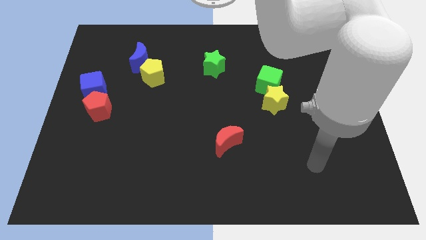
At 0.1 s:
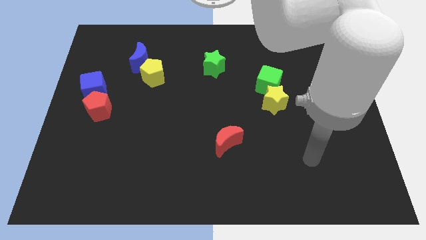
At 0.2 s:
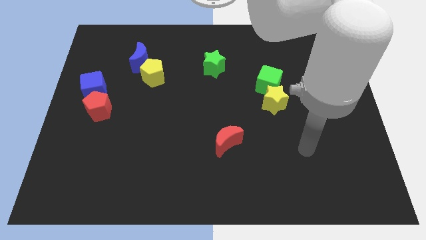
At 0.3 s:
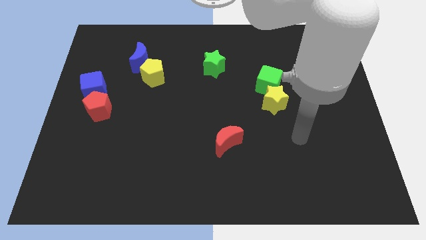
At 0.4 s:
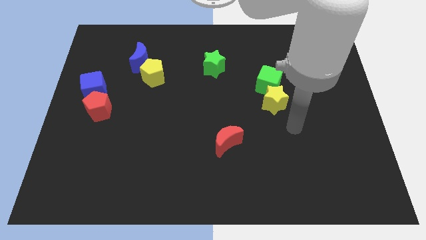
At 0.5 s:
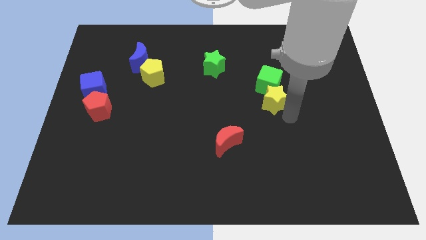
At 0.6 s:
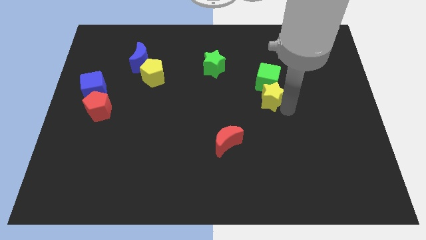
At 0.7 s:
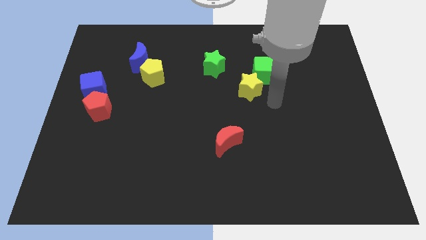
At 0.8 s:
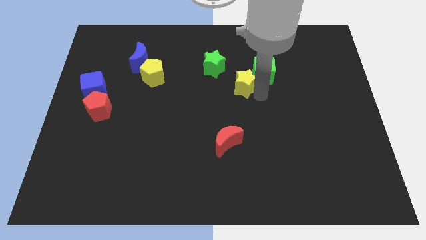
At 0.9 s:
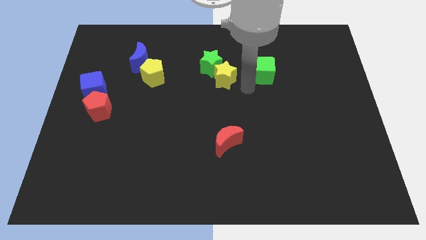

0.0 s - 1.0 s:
pull the green cube apart from the yellow star

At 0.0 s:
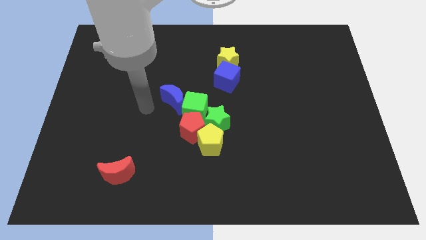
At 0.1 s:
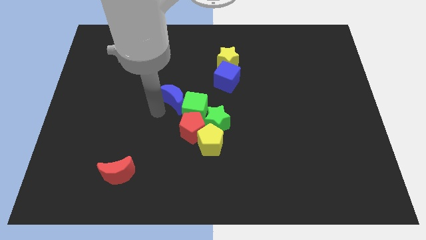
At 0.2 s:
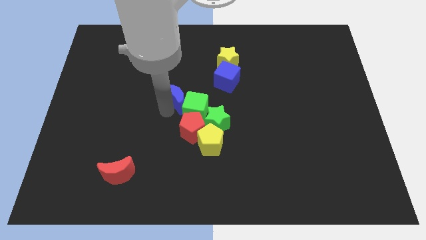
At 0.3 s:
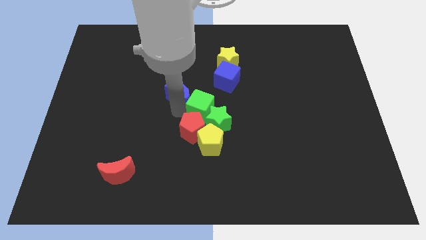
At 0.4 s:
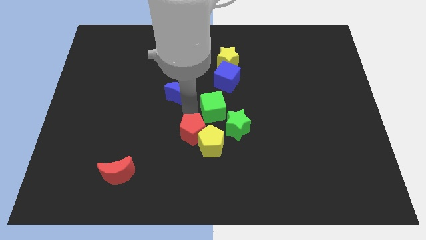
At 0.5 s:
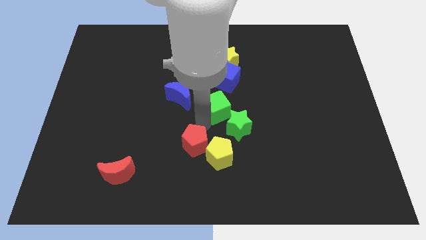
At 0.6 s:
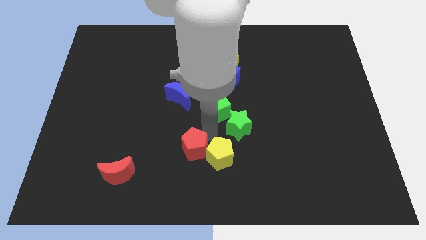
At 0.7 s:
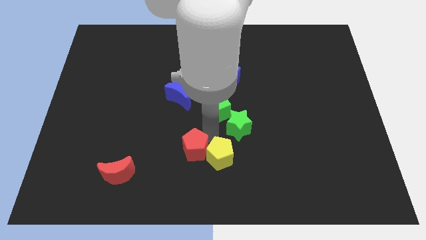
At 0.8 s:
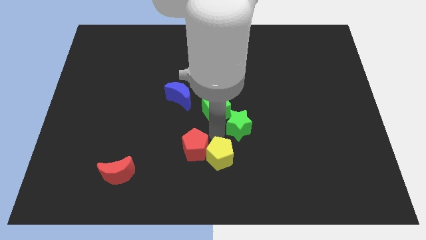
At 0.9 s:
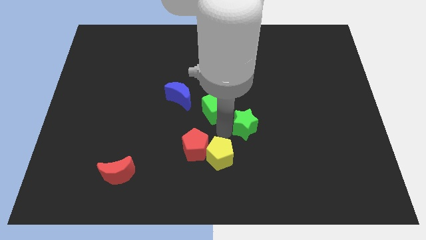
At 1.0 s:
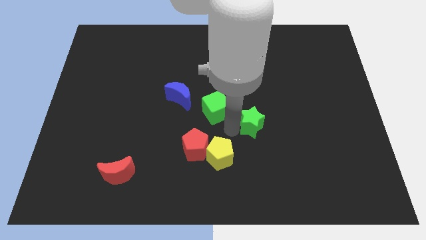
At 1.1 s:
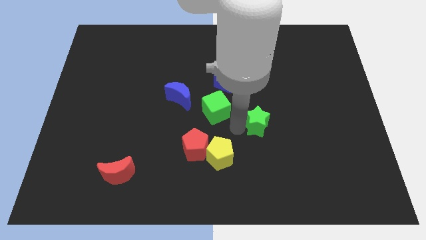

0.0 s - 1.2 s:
separate the green star from the group

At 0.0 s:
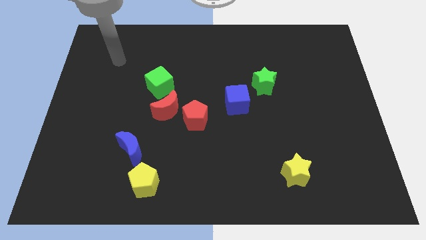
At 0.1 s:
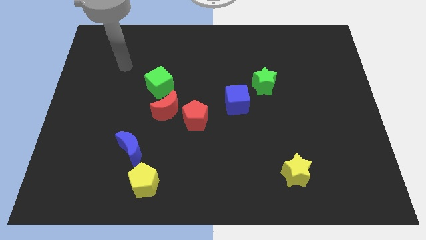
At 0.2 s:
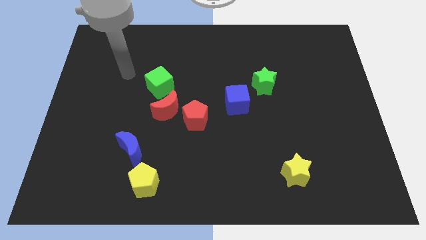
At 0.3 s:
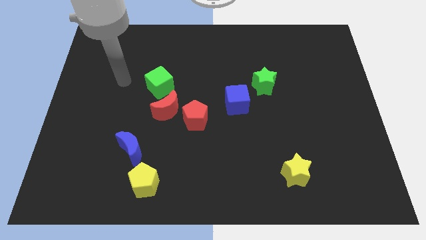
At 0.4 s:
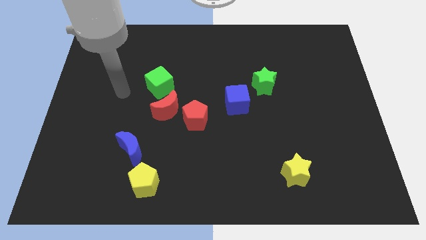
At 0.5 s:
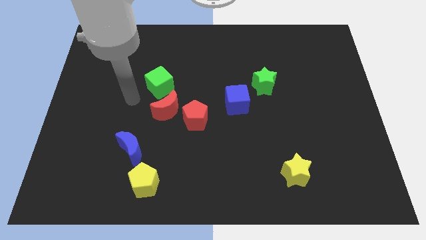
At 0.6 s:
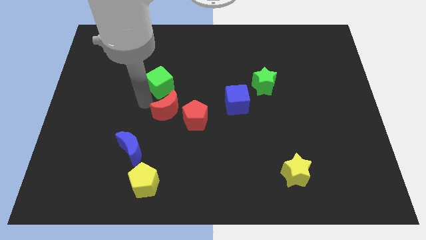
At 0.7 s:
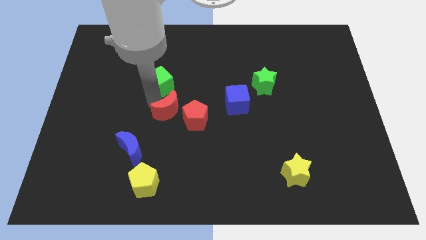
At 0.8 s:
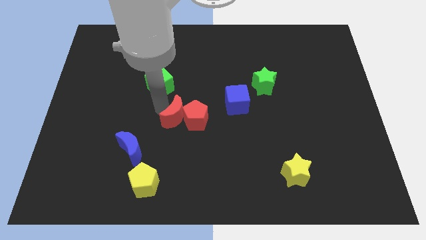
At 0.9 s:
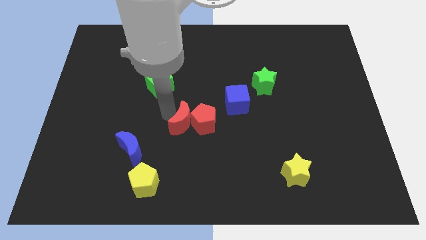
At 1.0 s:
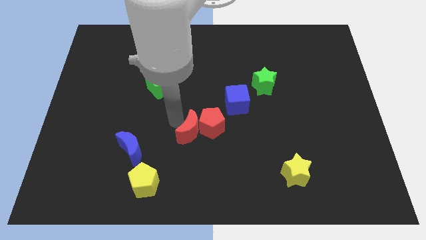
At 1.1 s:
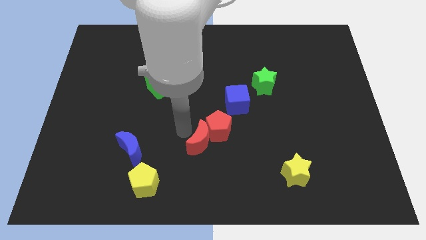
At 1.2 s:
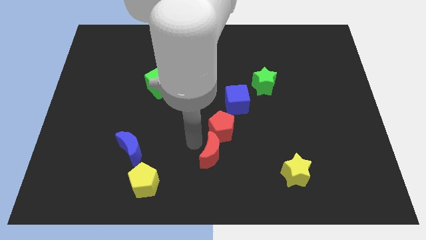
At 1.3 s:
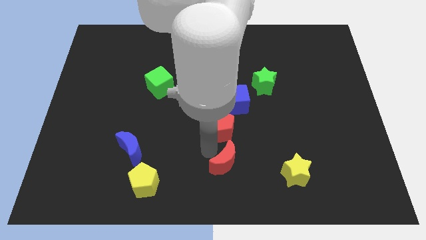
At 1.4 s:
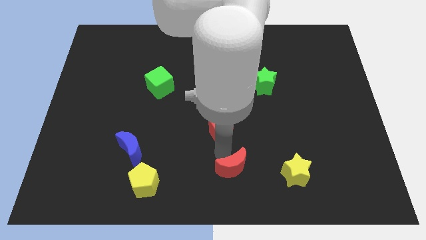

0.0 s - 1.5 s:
separate the red pentagon from the red moon

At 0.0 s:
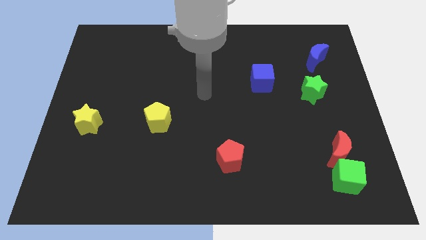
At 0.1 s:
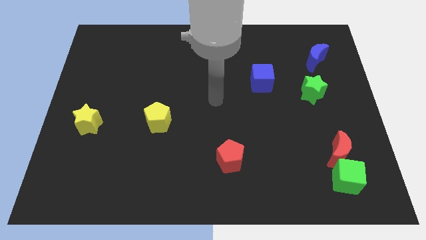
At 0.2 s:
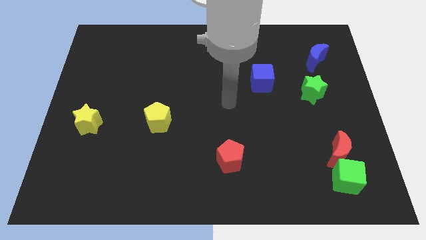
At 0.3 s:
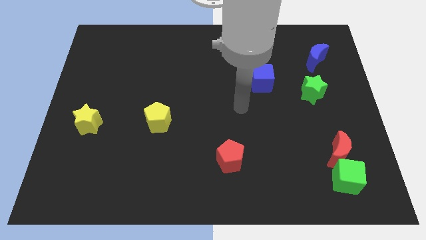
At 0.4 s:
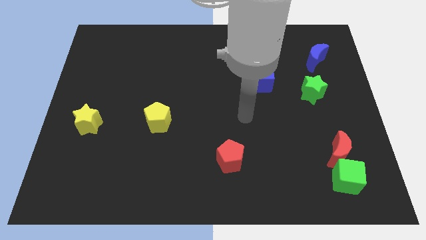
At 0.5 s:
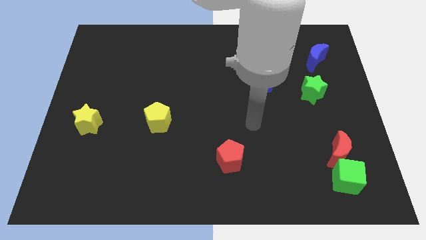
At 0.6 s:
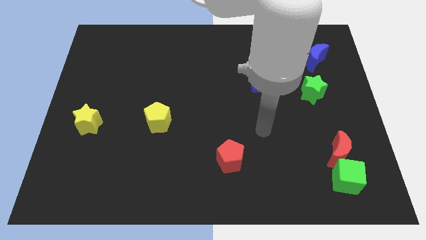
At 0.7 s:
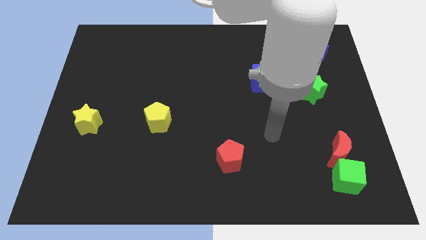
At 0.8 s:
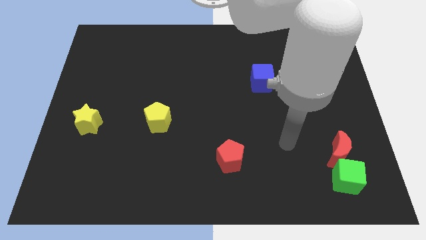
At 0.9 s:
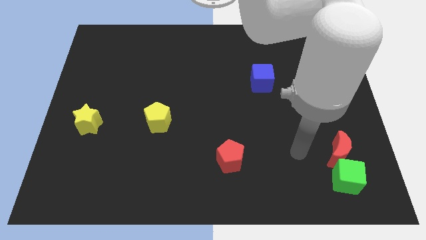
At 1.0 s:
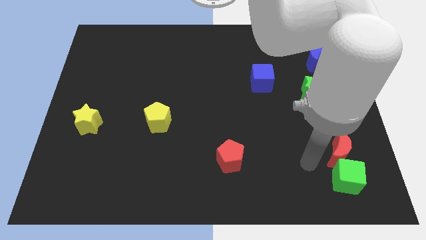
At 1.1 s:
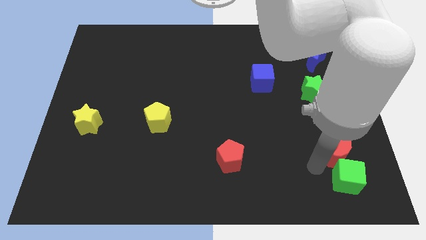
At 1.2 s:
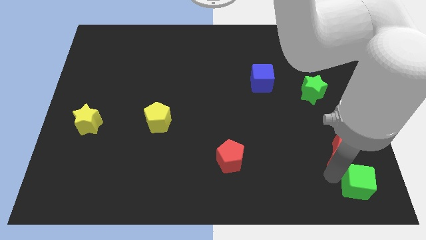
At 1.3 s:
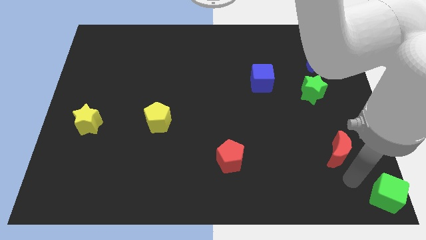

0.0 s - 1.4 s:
pull the red moon apart from the green cube

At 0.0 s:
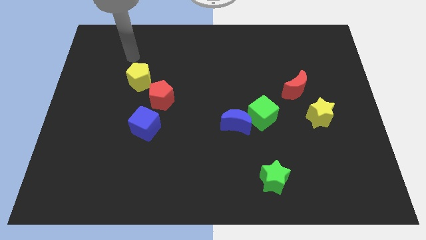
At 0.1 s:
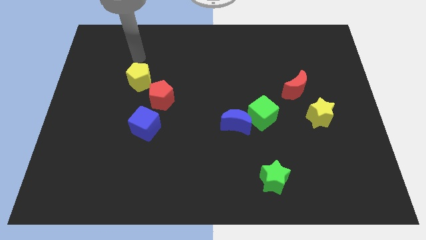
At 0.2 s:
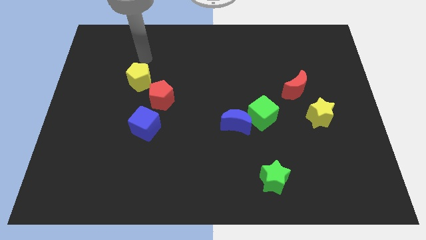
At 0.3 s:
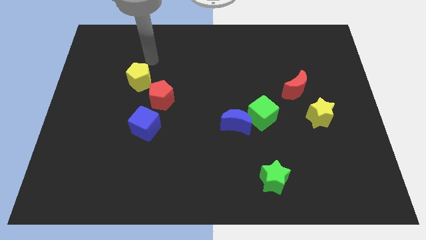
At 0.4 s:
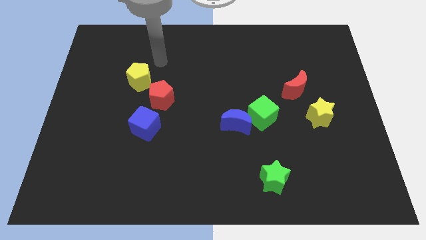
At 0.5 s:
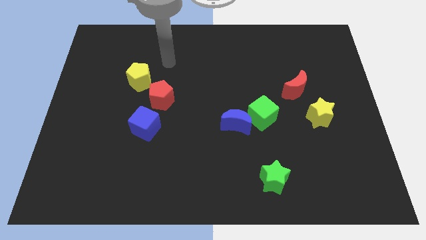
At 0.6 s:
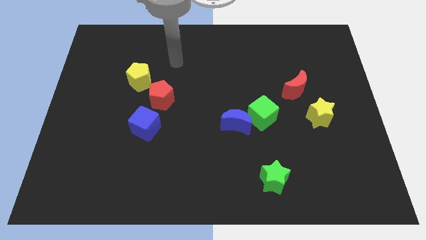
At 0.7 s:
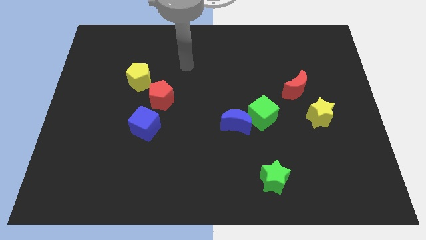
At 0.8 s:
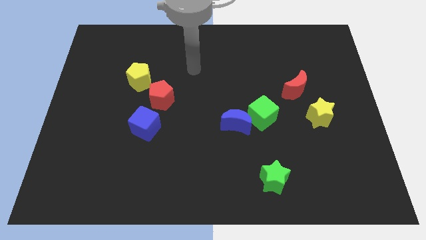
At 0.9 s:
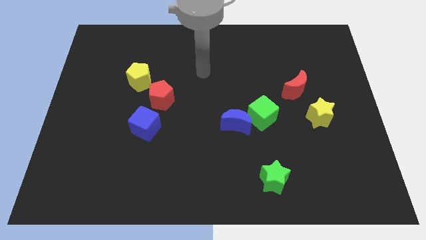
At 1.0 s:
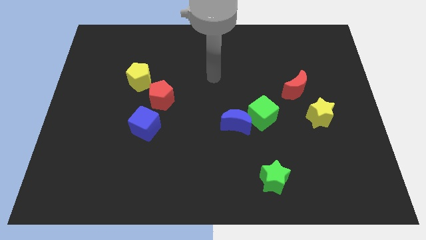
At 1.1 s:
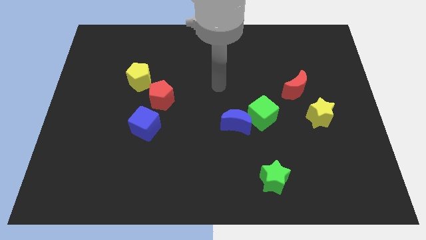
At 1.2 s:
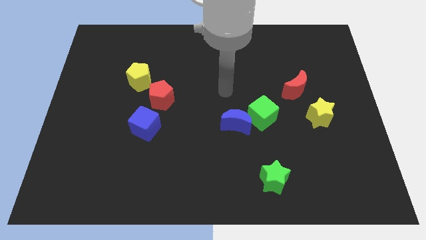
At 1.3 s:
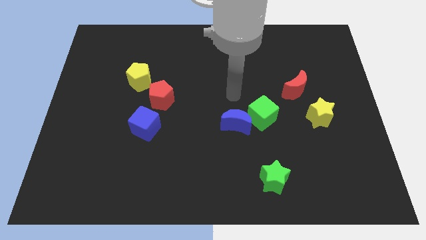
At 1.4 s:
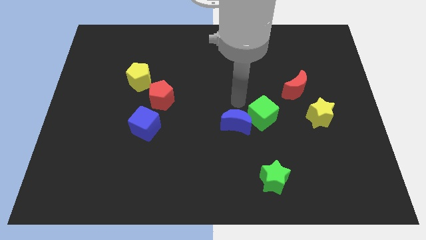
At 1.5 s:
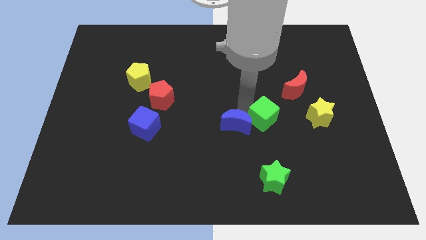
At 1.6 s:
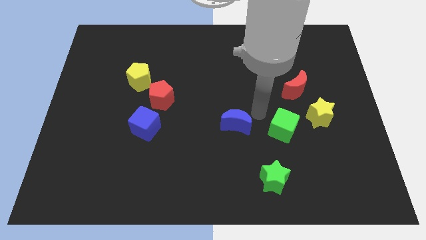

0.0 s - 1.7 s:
pull the blue moon apart from the green cube

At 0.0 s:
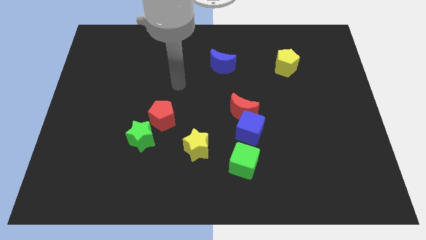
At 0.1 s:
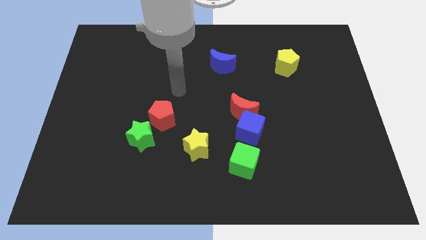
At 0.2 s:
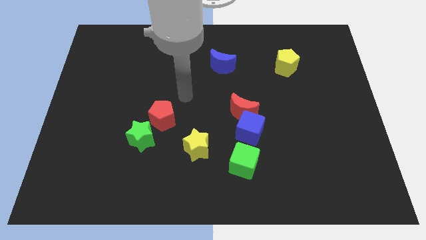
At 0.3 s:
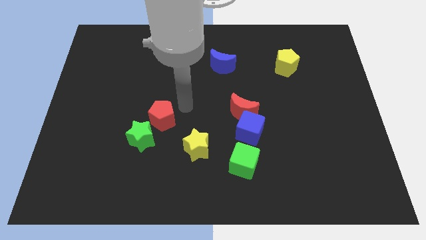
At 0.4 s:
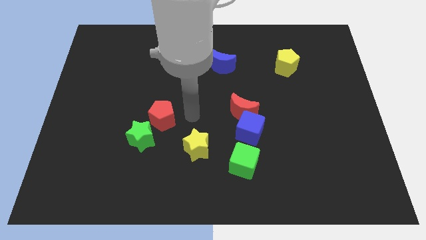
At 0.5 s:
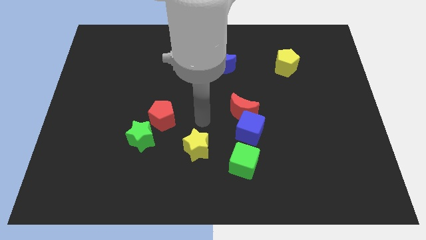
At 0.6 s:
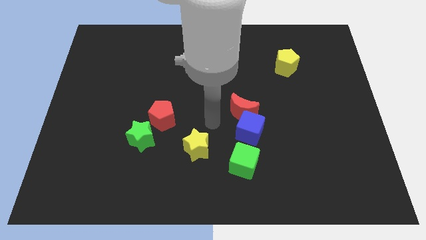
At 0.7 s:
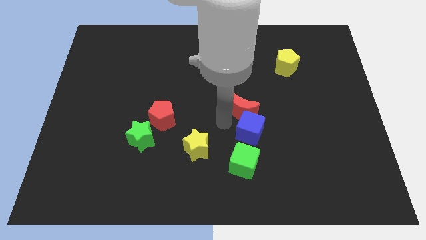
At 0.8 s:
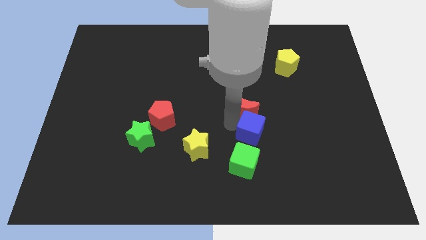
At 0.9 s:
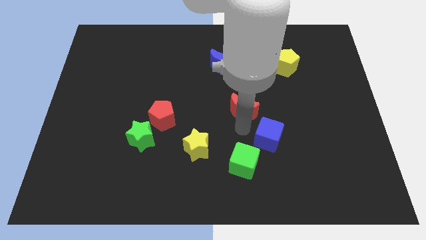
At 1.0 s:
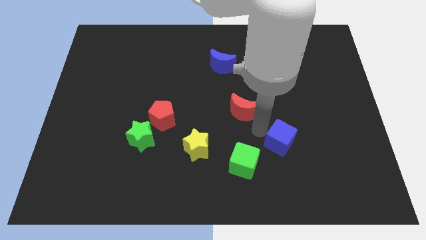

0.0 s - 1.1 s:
move the red moon away from the blue cube

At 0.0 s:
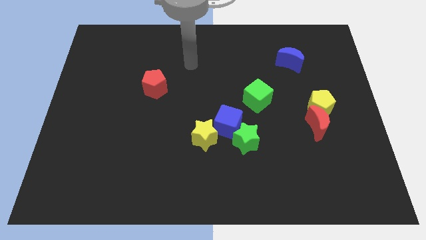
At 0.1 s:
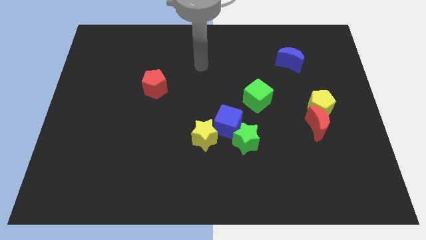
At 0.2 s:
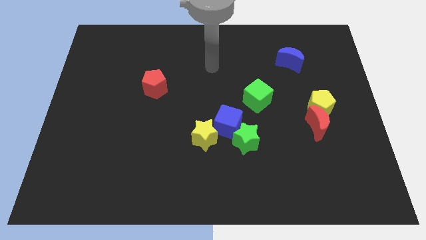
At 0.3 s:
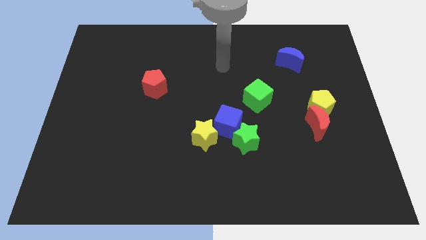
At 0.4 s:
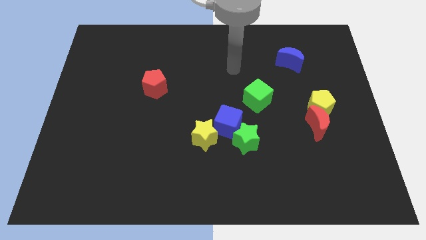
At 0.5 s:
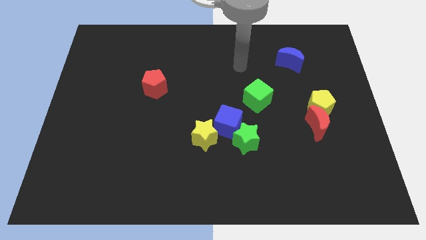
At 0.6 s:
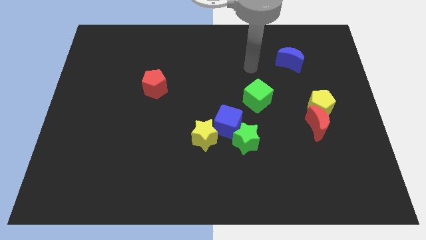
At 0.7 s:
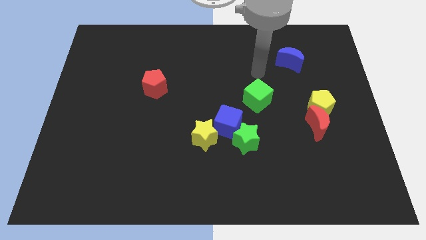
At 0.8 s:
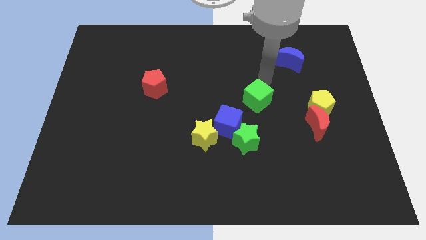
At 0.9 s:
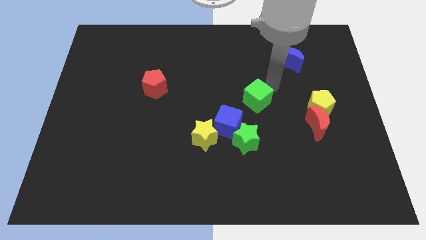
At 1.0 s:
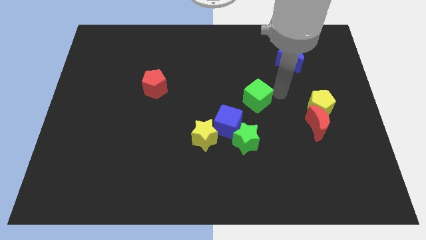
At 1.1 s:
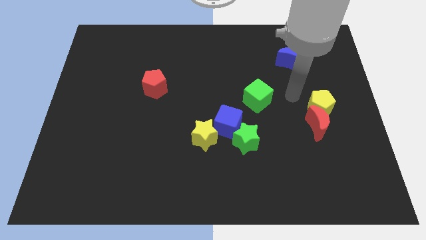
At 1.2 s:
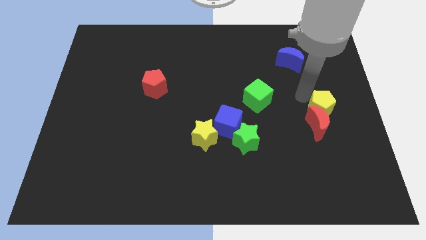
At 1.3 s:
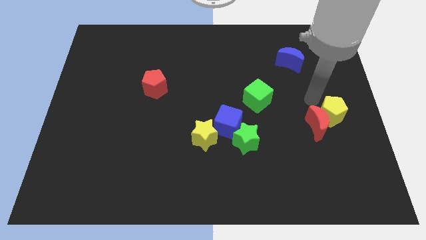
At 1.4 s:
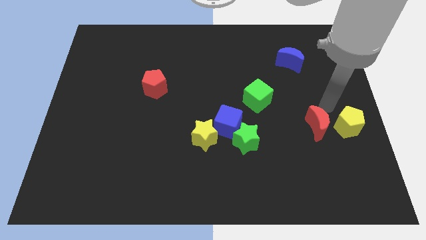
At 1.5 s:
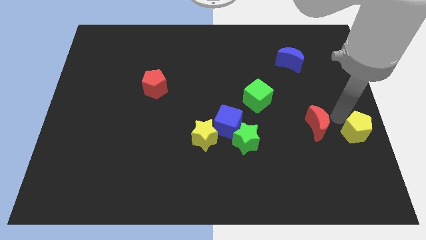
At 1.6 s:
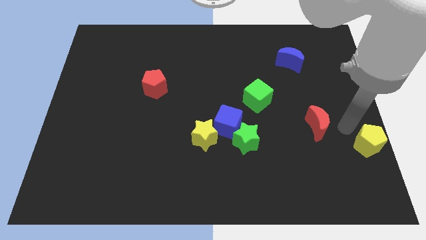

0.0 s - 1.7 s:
move the red moon away from the yellow pentagon
